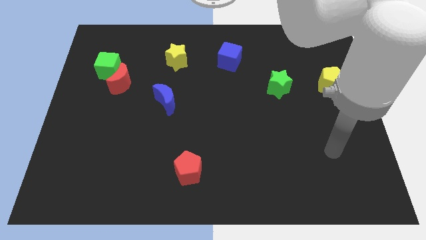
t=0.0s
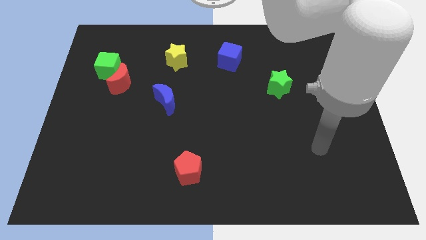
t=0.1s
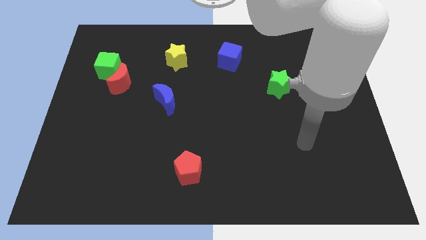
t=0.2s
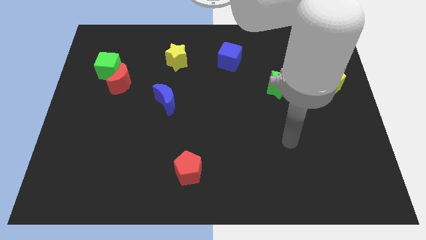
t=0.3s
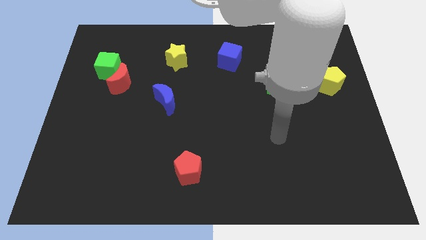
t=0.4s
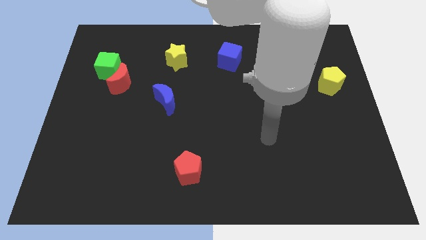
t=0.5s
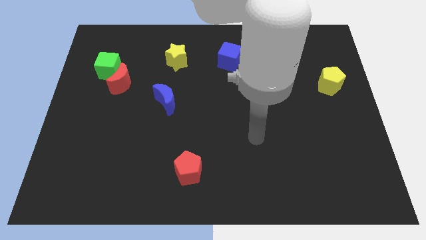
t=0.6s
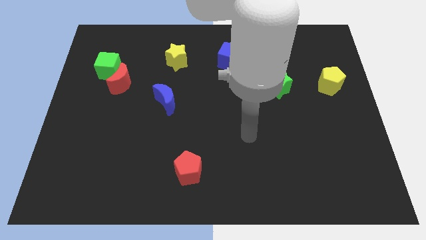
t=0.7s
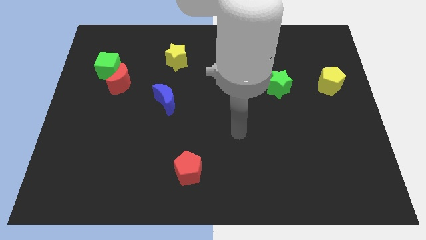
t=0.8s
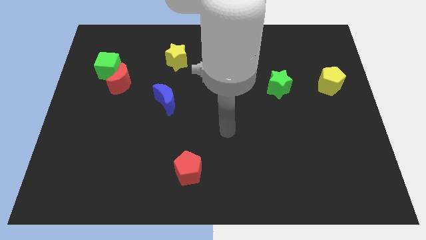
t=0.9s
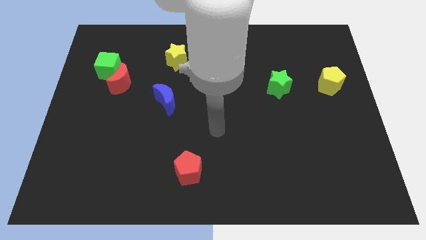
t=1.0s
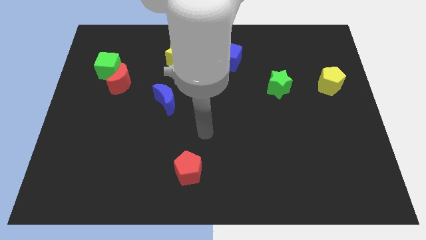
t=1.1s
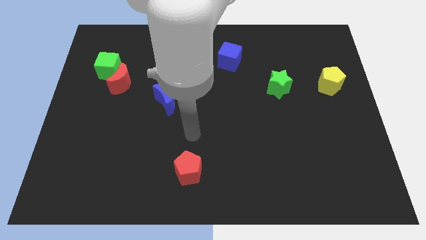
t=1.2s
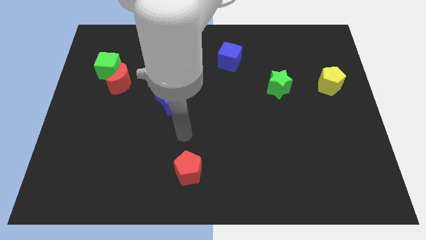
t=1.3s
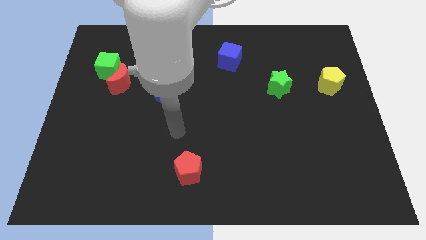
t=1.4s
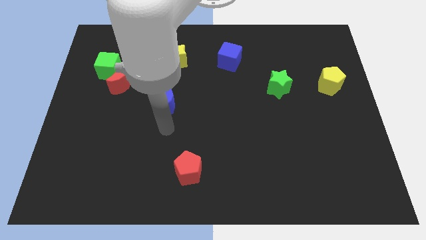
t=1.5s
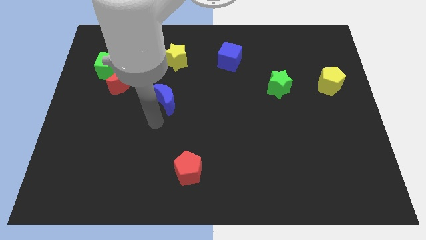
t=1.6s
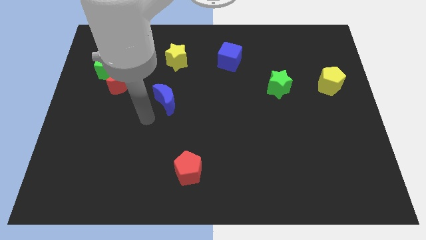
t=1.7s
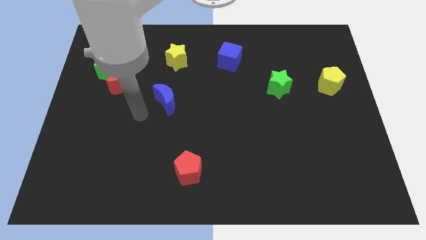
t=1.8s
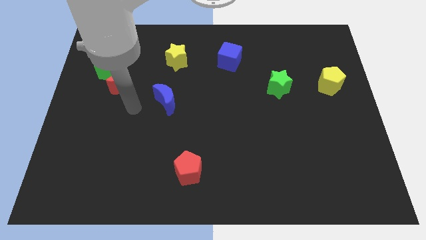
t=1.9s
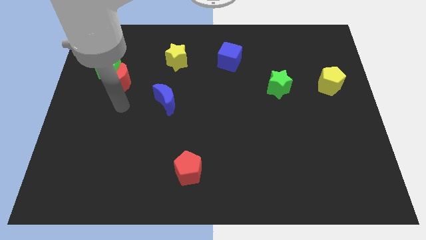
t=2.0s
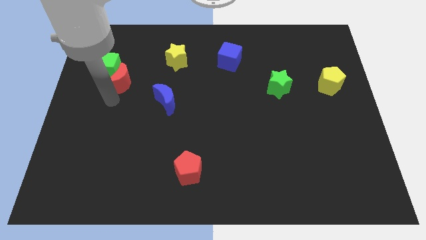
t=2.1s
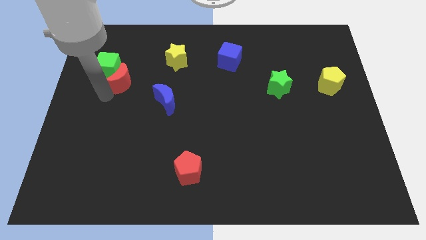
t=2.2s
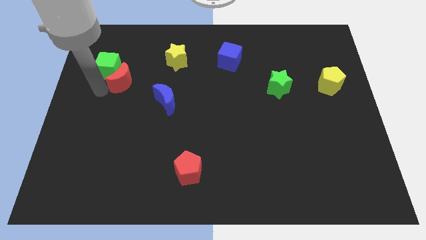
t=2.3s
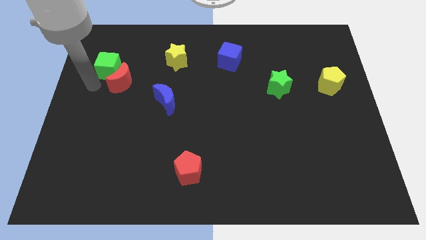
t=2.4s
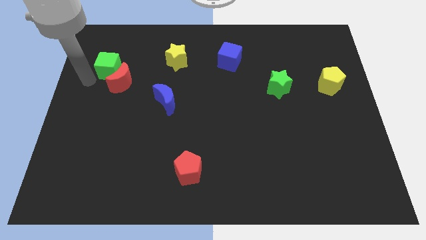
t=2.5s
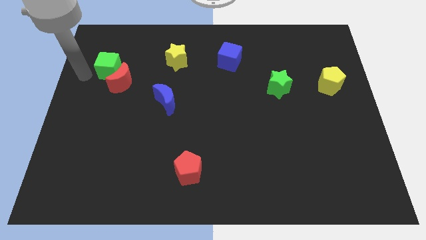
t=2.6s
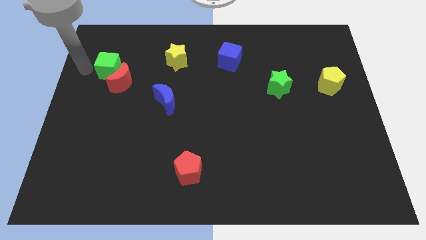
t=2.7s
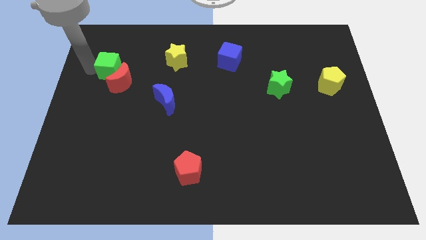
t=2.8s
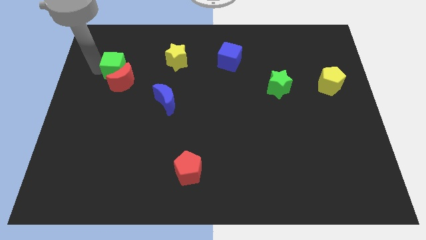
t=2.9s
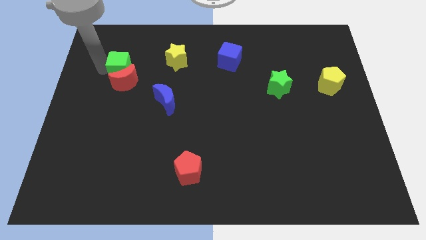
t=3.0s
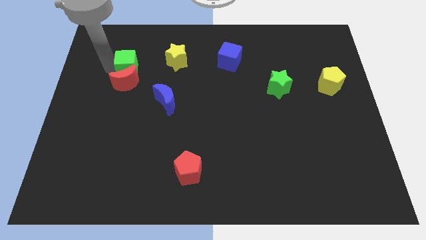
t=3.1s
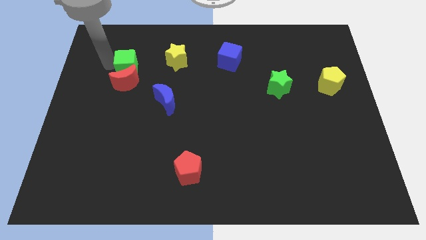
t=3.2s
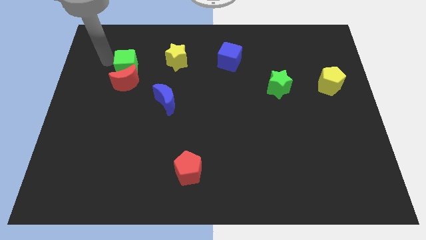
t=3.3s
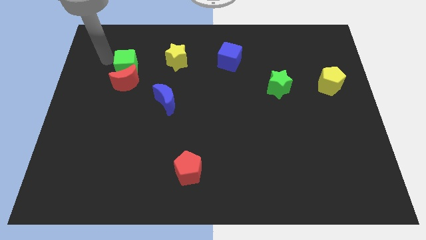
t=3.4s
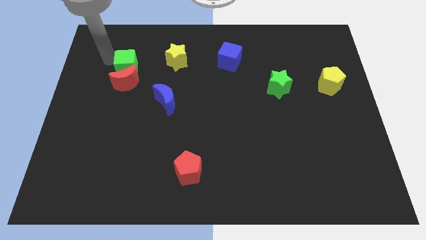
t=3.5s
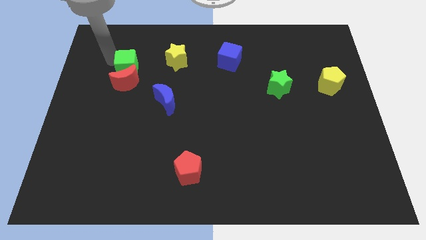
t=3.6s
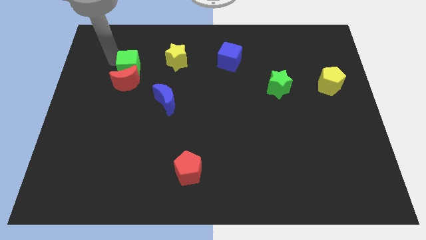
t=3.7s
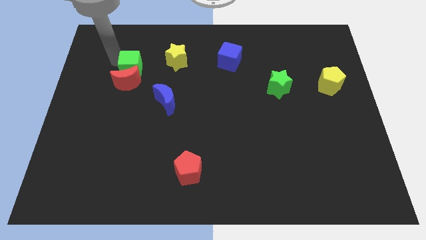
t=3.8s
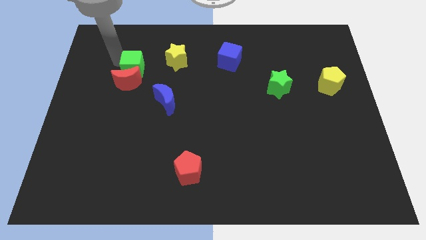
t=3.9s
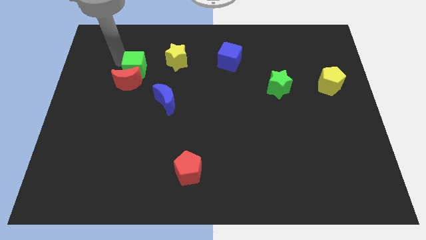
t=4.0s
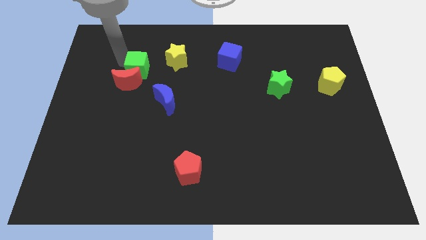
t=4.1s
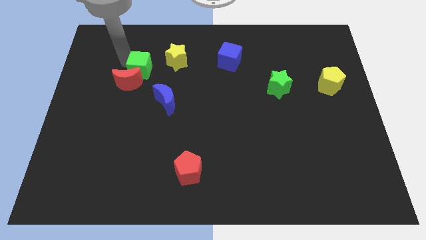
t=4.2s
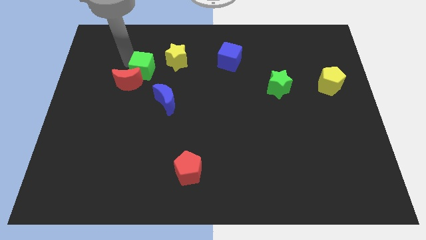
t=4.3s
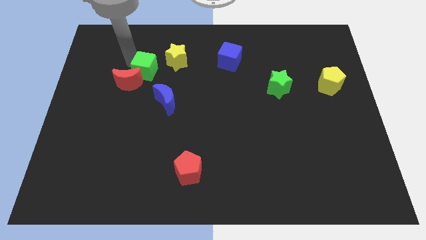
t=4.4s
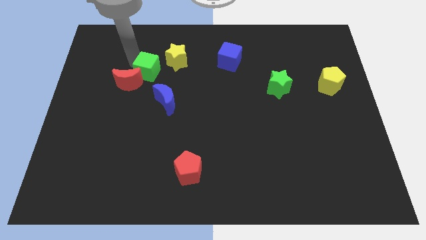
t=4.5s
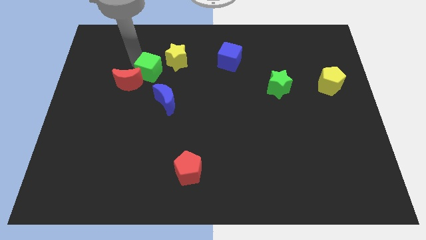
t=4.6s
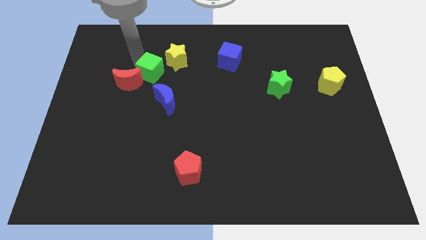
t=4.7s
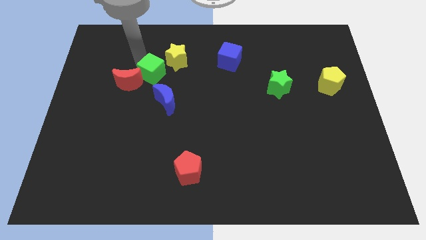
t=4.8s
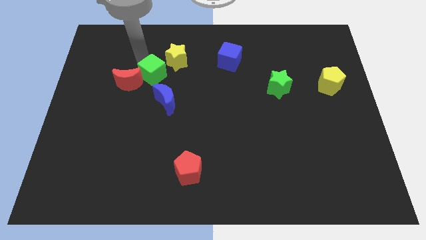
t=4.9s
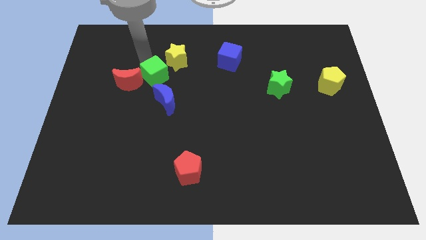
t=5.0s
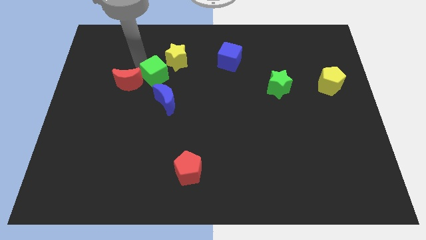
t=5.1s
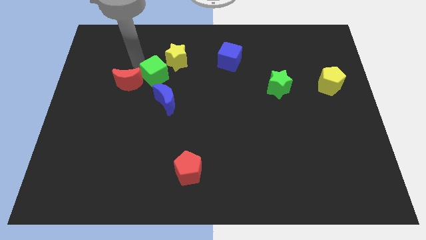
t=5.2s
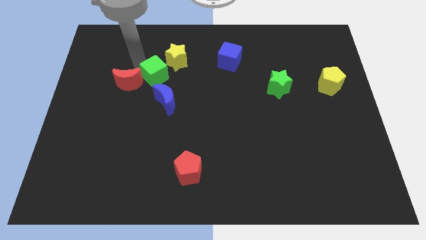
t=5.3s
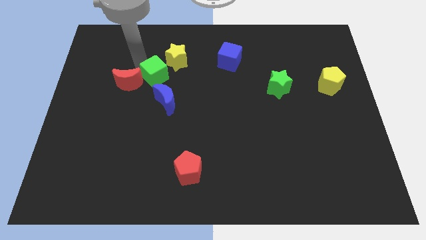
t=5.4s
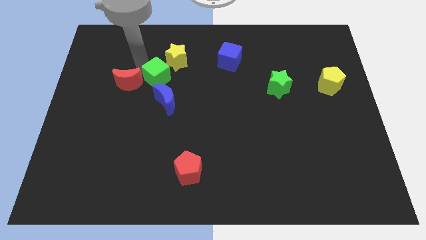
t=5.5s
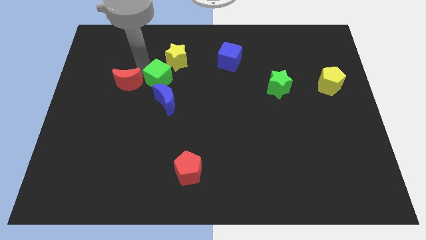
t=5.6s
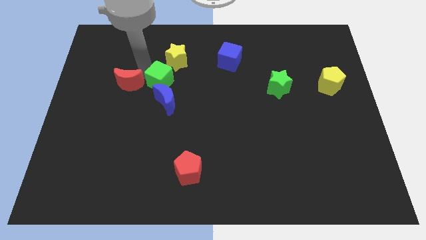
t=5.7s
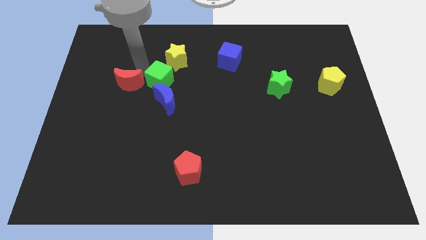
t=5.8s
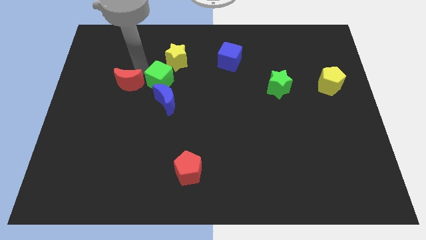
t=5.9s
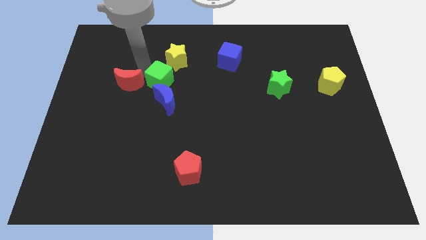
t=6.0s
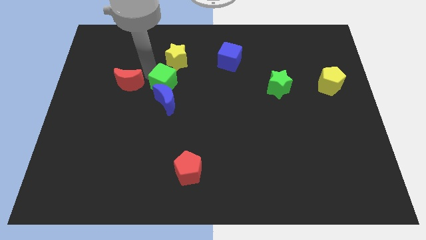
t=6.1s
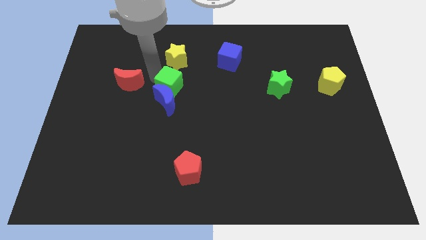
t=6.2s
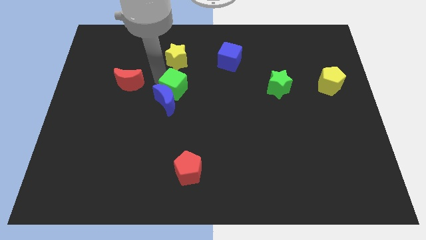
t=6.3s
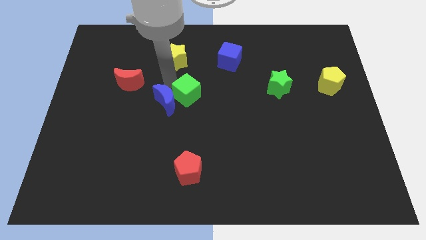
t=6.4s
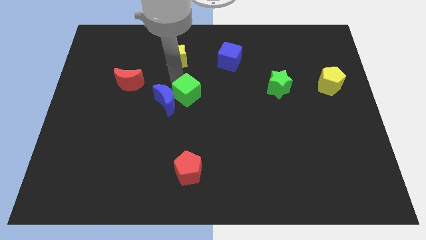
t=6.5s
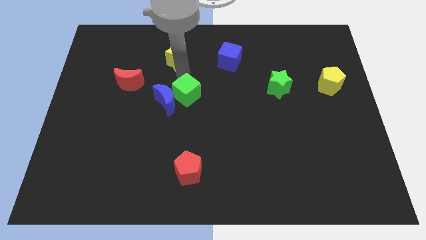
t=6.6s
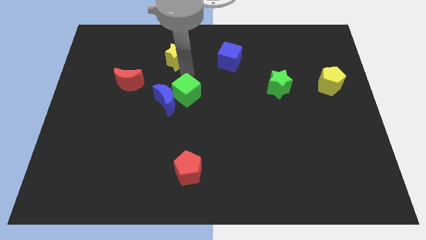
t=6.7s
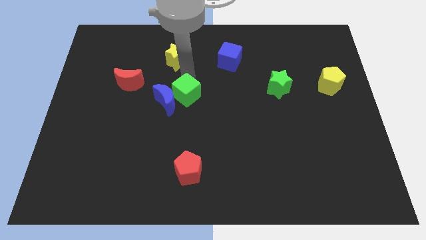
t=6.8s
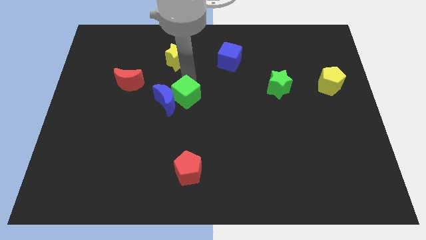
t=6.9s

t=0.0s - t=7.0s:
move the green cube to the bottom right of the blue moon

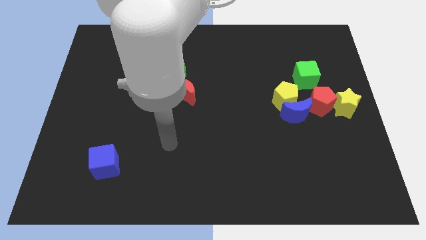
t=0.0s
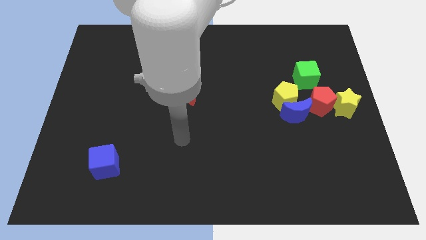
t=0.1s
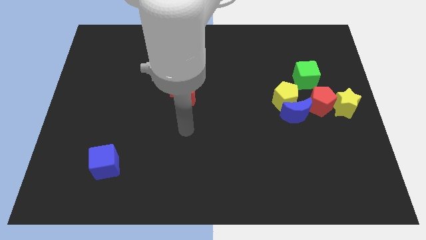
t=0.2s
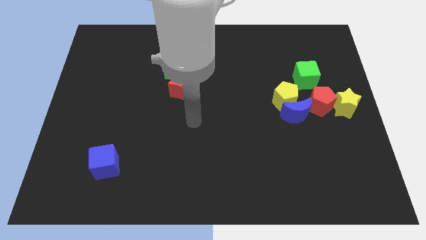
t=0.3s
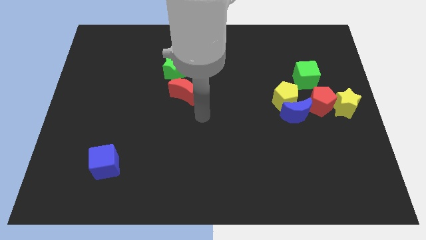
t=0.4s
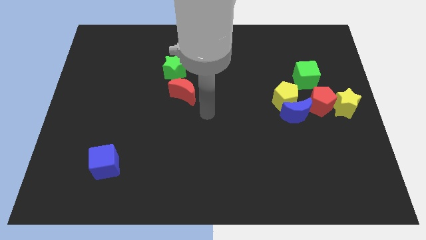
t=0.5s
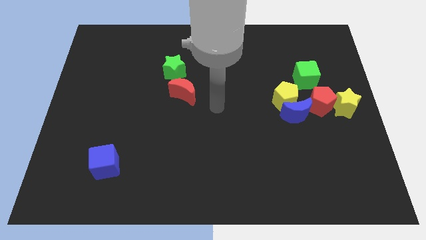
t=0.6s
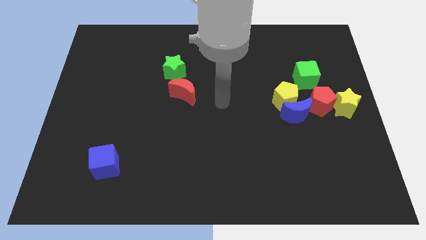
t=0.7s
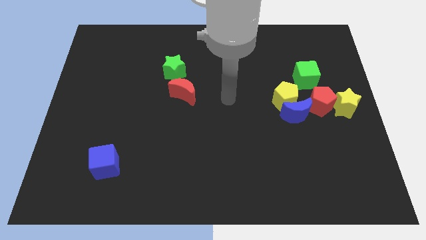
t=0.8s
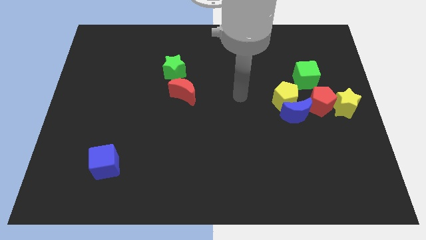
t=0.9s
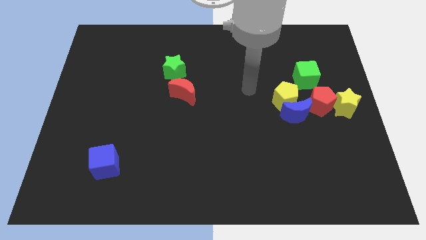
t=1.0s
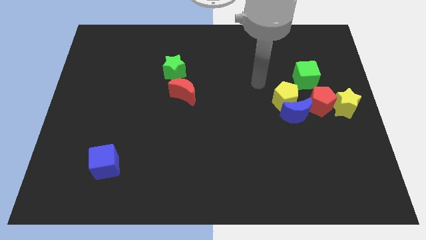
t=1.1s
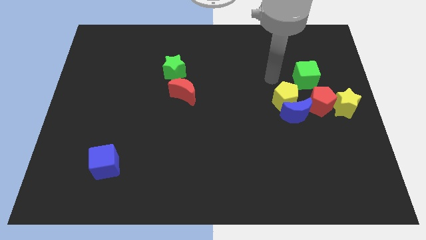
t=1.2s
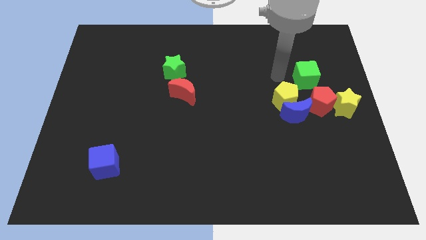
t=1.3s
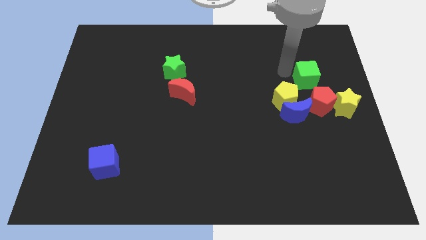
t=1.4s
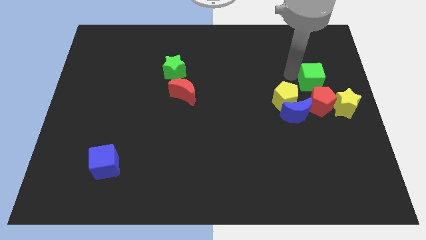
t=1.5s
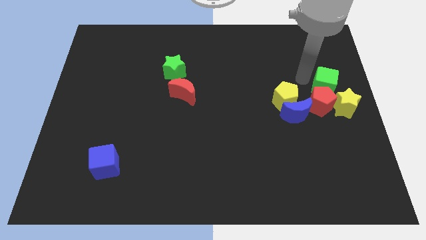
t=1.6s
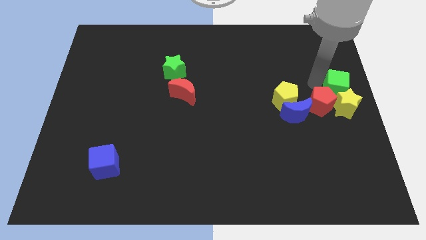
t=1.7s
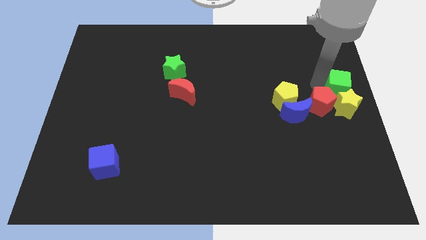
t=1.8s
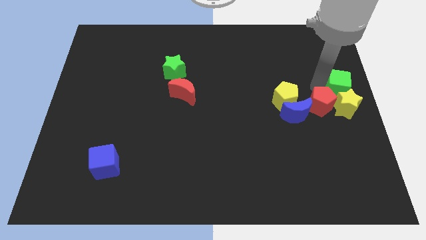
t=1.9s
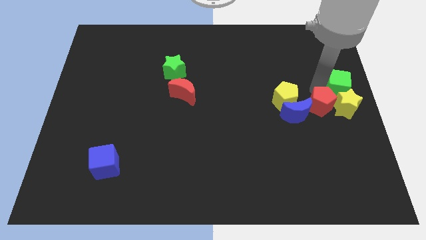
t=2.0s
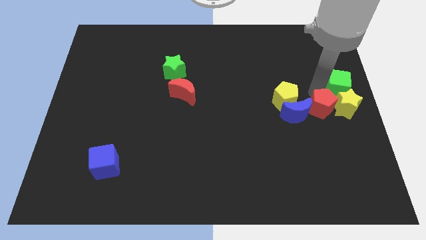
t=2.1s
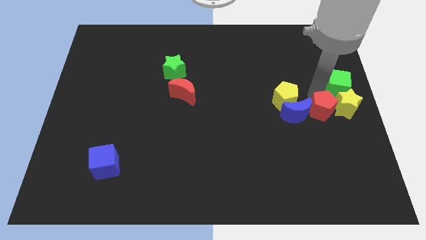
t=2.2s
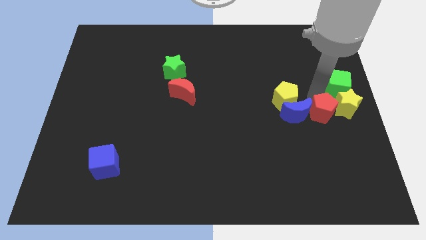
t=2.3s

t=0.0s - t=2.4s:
slide the red pentagon to the bottom right side of the blue moon
